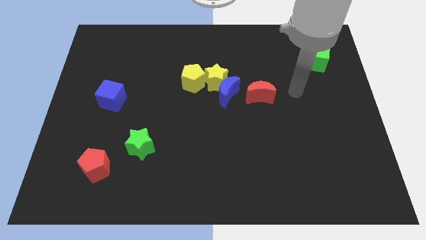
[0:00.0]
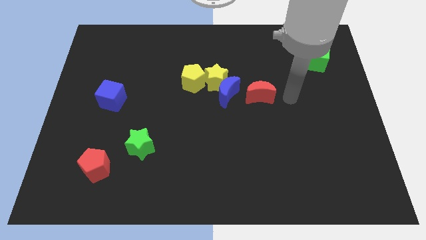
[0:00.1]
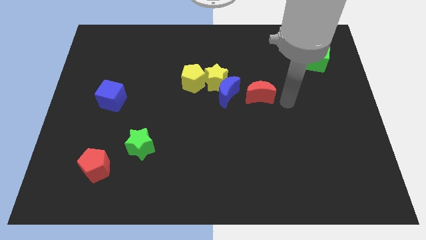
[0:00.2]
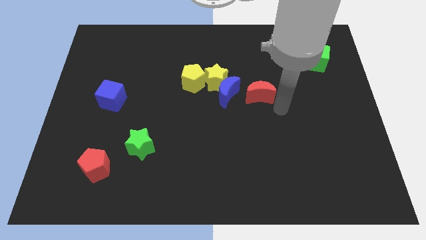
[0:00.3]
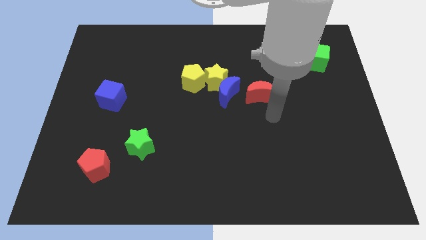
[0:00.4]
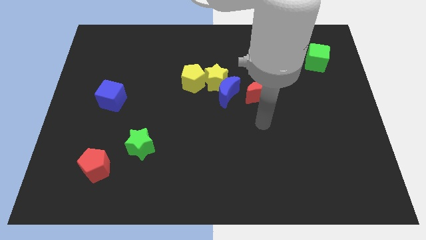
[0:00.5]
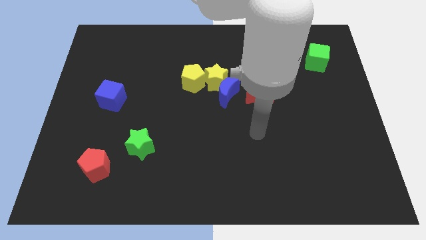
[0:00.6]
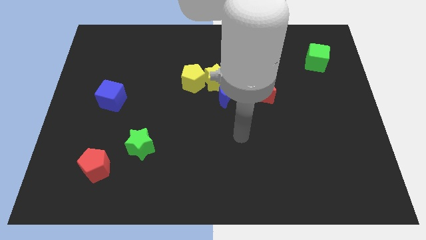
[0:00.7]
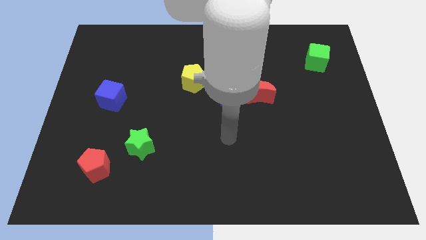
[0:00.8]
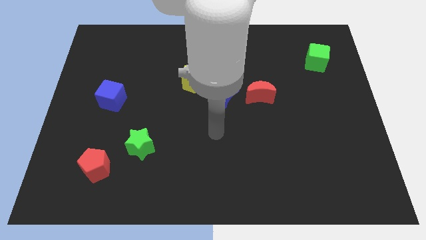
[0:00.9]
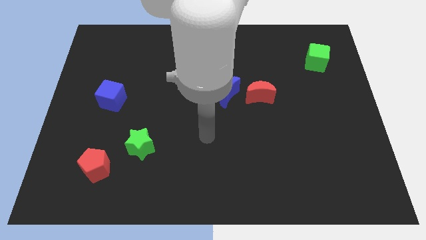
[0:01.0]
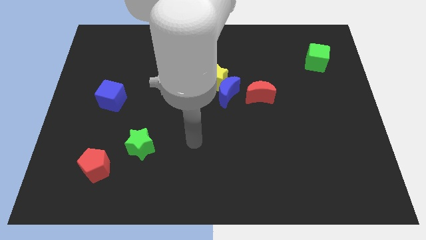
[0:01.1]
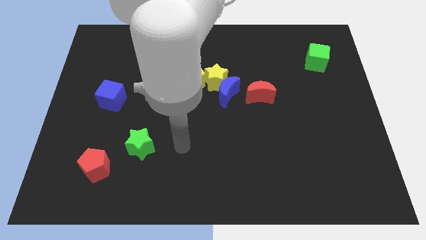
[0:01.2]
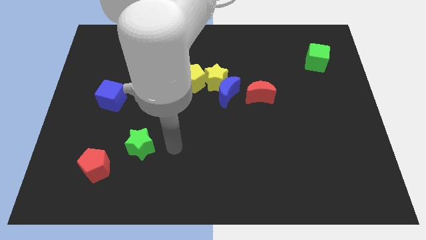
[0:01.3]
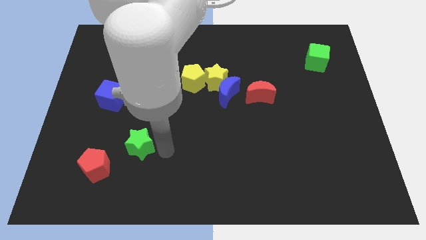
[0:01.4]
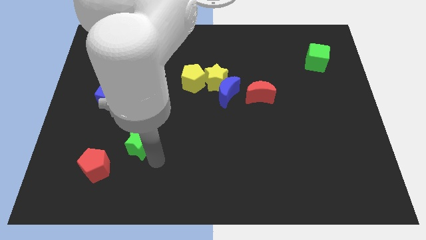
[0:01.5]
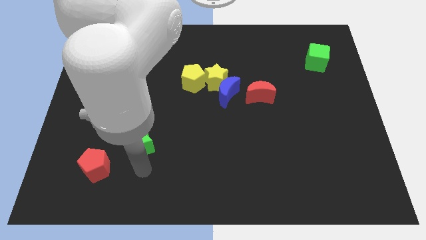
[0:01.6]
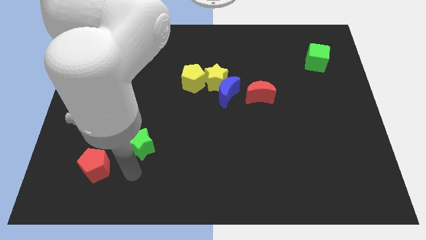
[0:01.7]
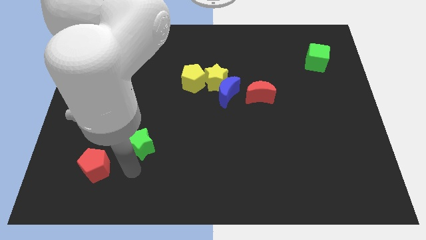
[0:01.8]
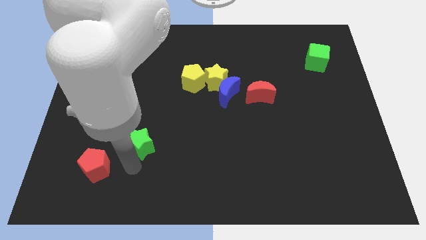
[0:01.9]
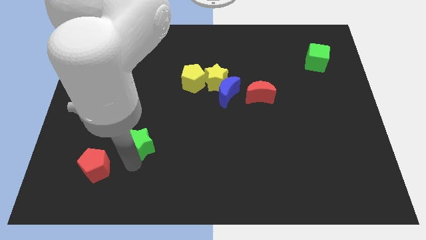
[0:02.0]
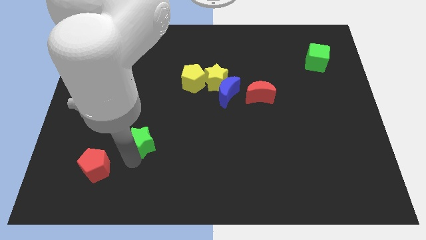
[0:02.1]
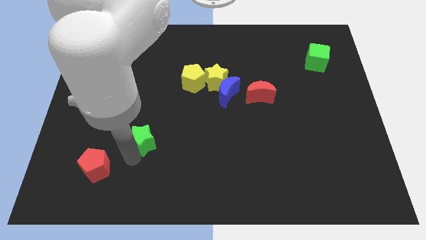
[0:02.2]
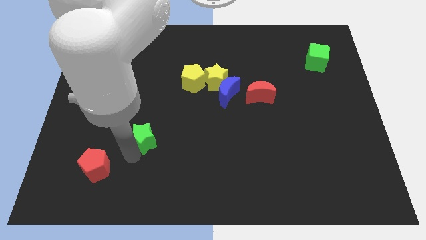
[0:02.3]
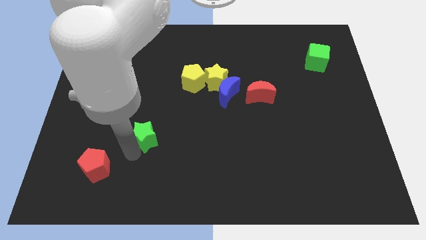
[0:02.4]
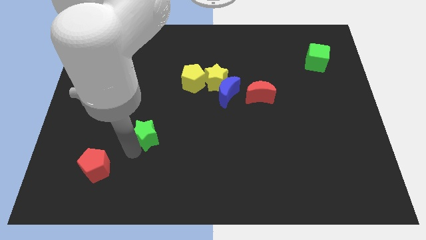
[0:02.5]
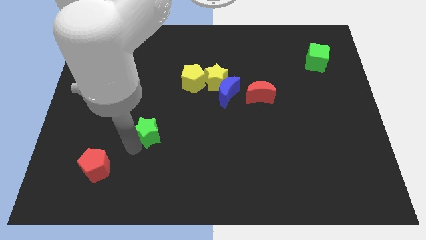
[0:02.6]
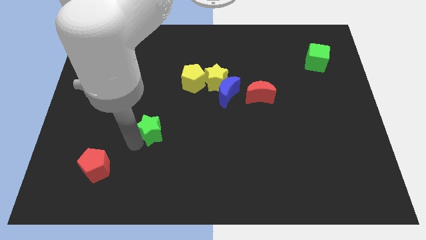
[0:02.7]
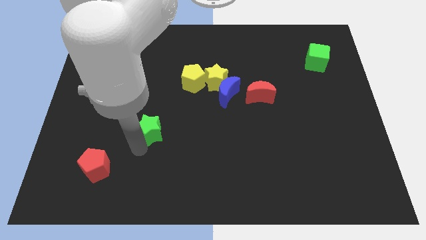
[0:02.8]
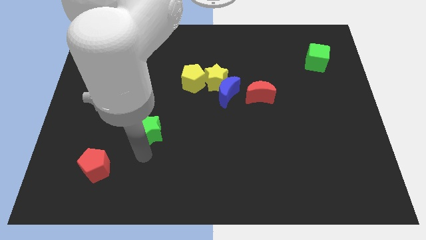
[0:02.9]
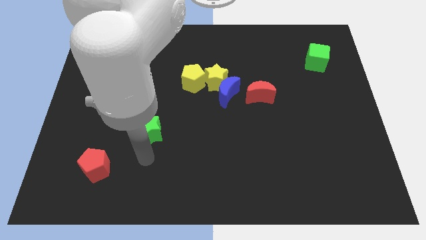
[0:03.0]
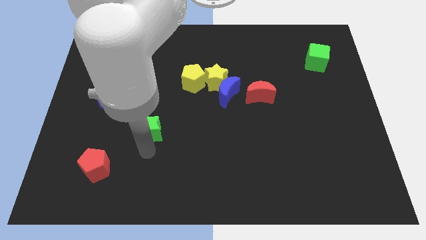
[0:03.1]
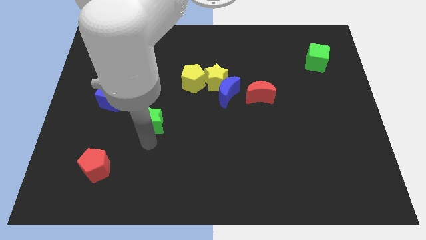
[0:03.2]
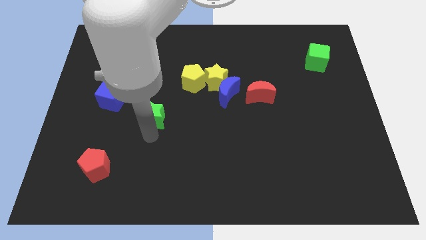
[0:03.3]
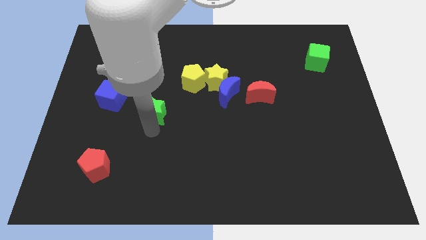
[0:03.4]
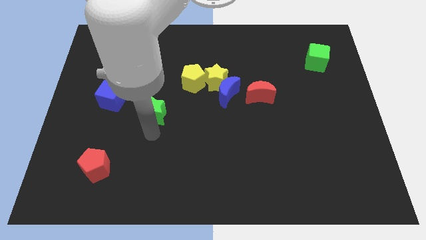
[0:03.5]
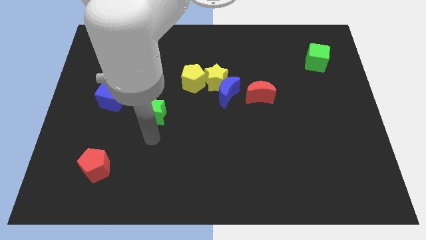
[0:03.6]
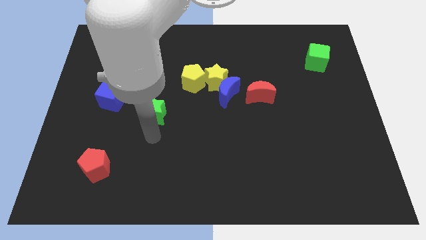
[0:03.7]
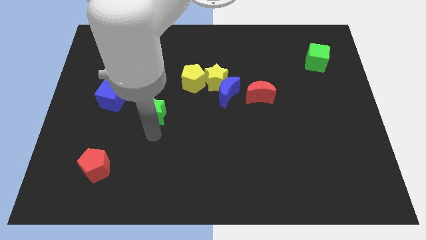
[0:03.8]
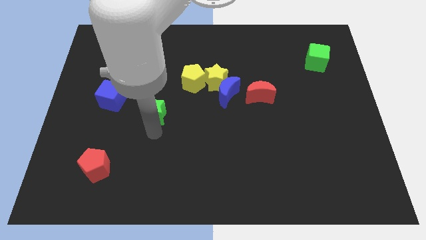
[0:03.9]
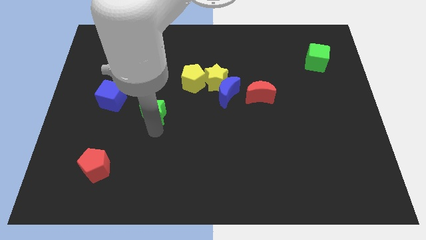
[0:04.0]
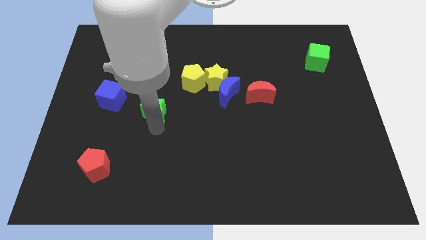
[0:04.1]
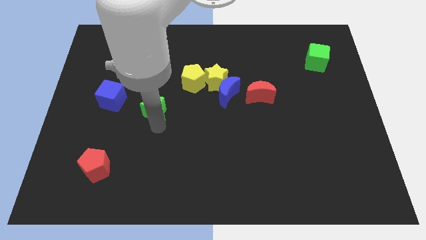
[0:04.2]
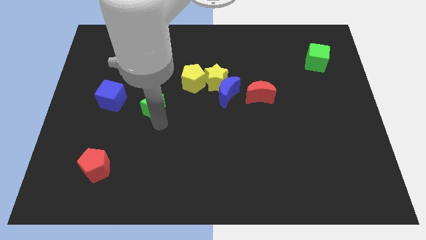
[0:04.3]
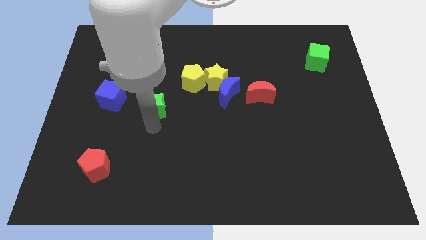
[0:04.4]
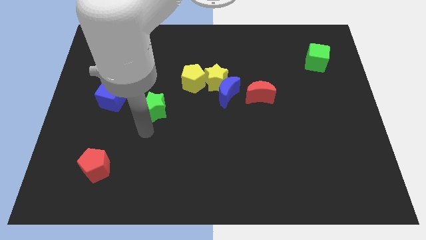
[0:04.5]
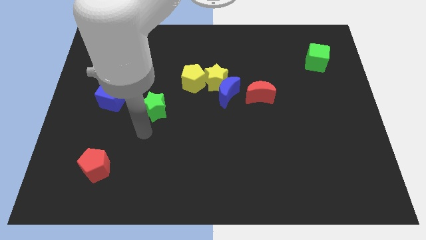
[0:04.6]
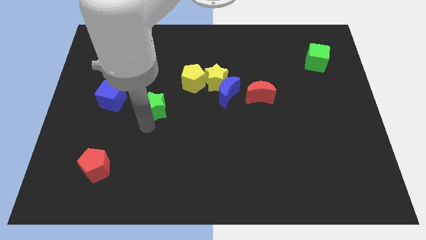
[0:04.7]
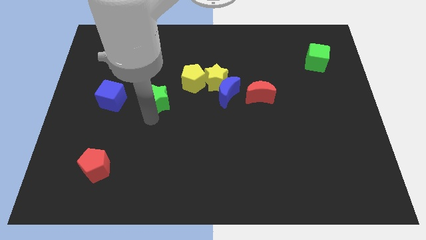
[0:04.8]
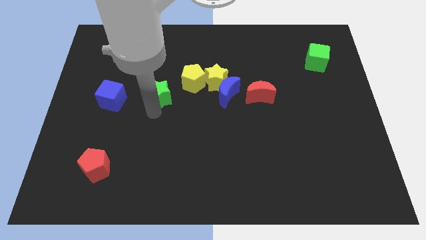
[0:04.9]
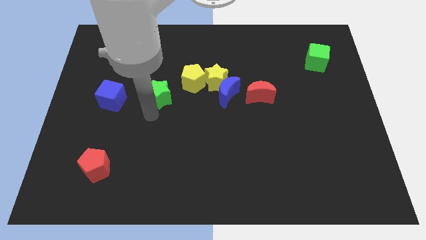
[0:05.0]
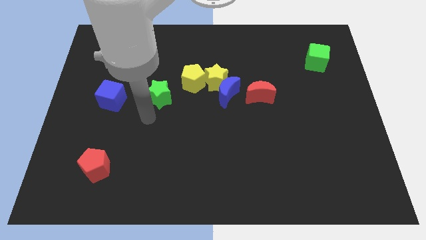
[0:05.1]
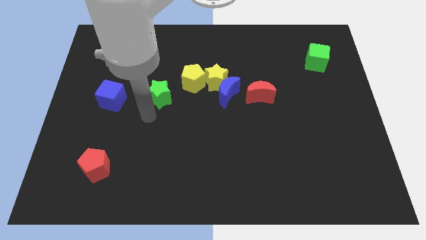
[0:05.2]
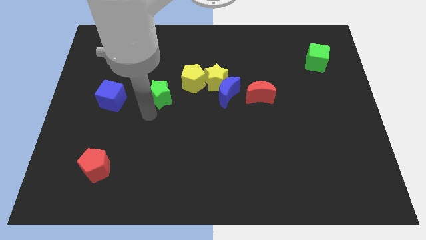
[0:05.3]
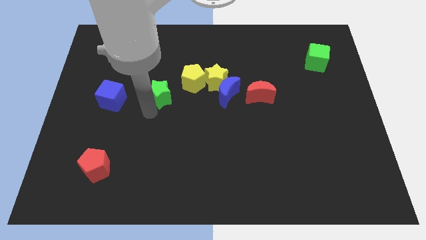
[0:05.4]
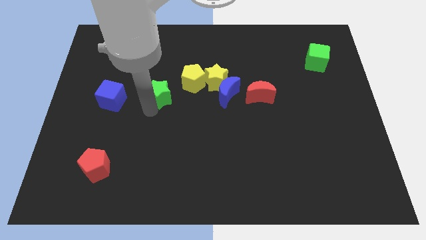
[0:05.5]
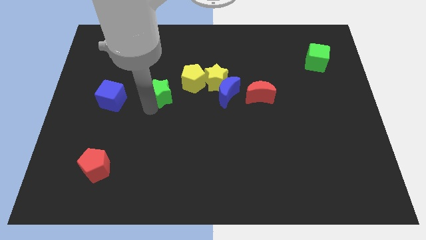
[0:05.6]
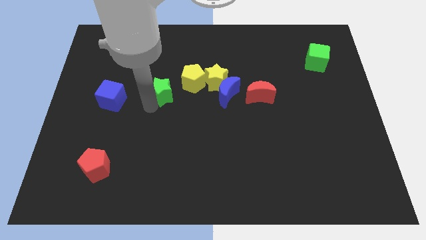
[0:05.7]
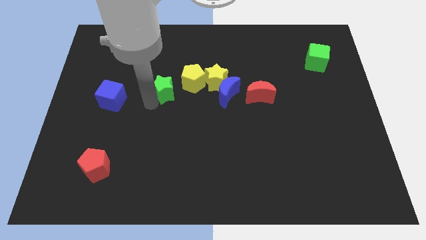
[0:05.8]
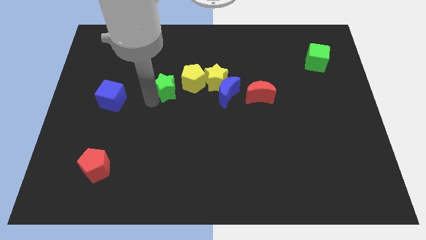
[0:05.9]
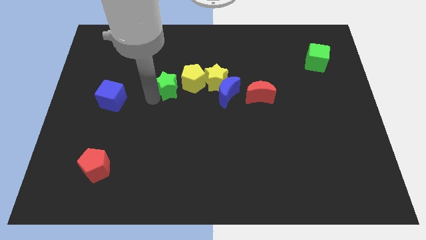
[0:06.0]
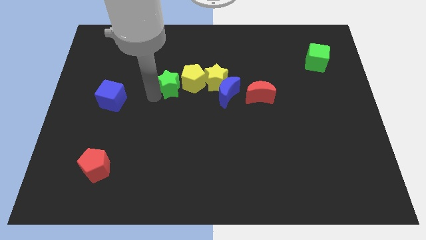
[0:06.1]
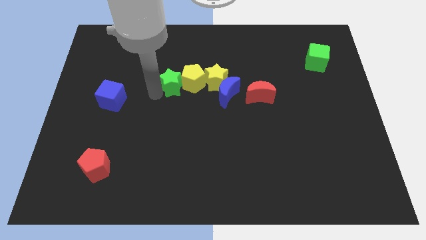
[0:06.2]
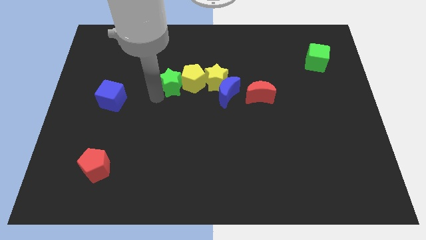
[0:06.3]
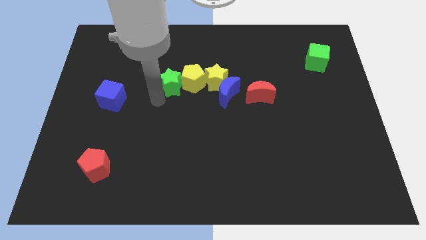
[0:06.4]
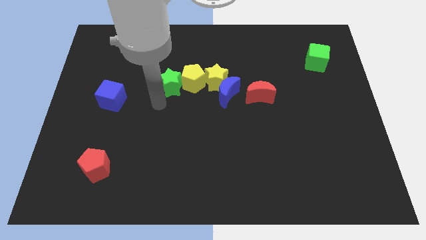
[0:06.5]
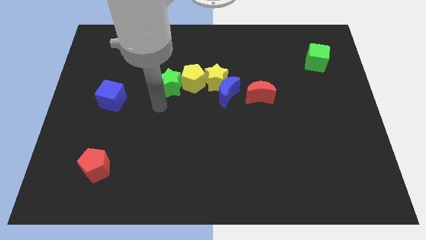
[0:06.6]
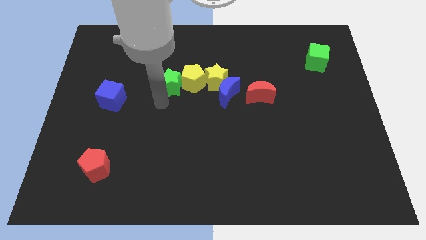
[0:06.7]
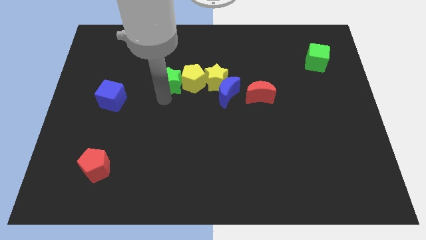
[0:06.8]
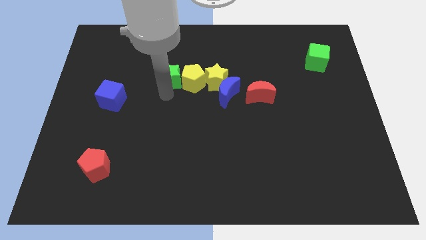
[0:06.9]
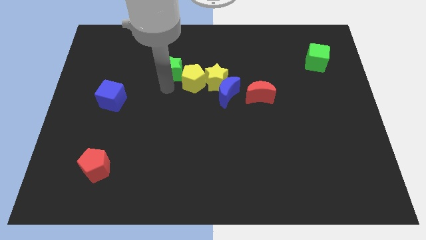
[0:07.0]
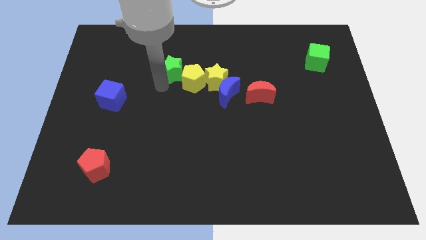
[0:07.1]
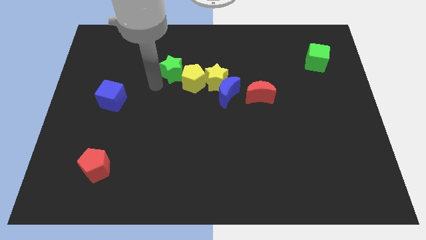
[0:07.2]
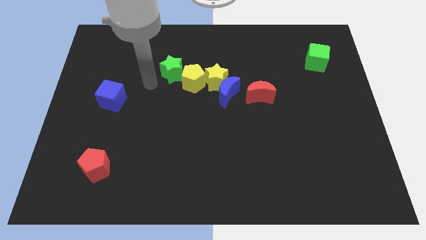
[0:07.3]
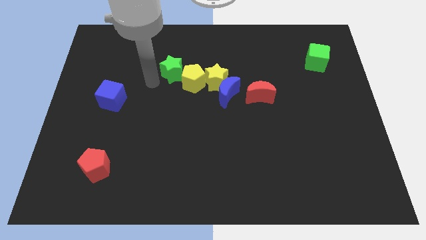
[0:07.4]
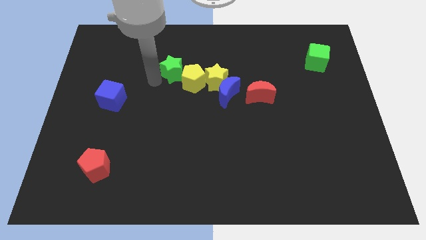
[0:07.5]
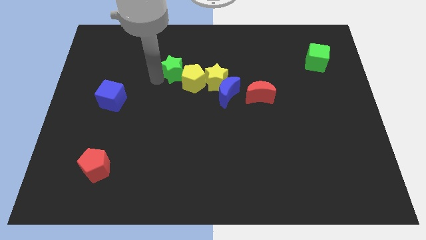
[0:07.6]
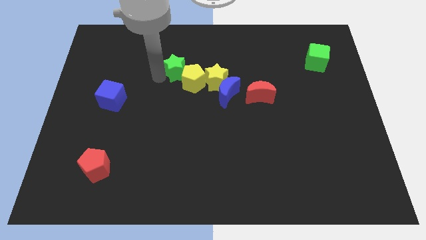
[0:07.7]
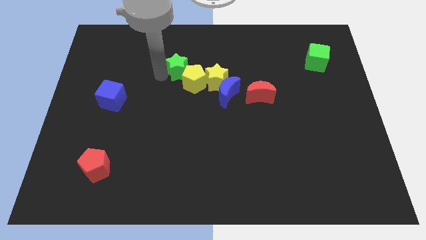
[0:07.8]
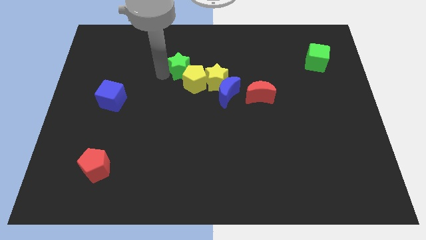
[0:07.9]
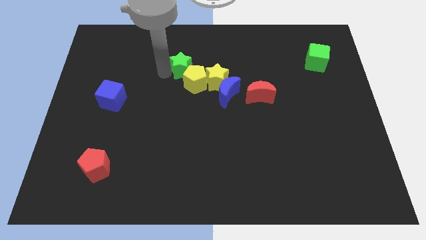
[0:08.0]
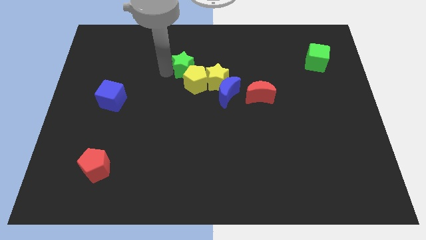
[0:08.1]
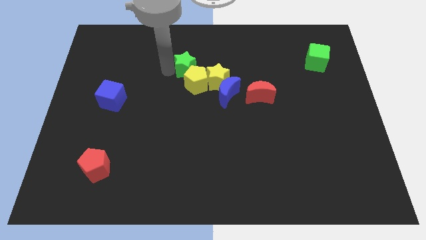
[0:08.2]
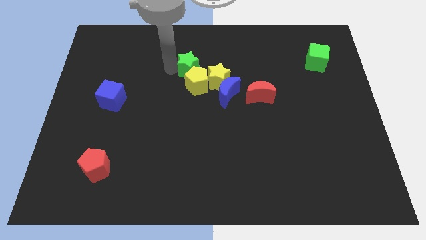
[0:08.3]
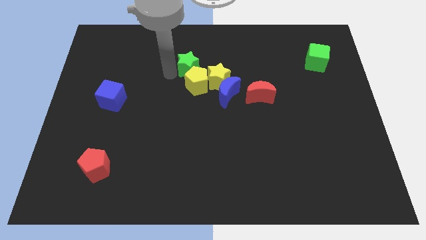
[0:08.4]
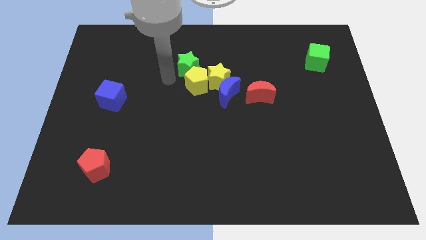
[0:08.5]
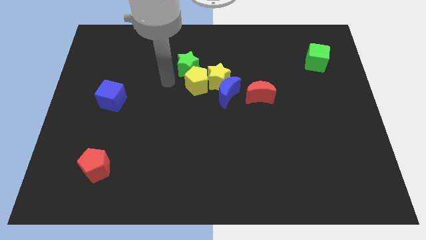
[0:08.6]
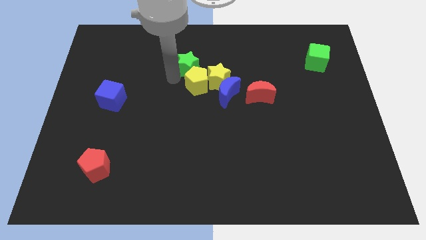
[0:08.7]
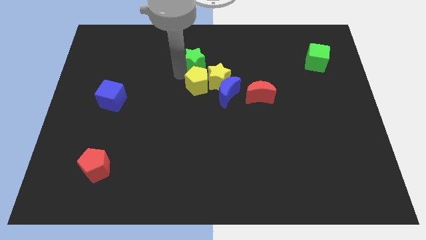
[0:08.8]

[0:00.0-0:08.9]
slide the green star up and then to the right
